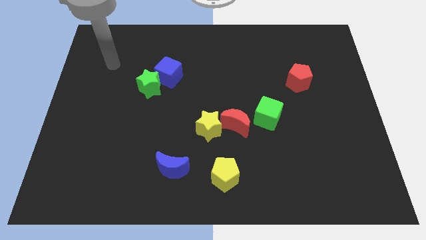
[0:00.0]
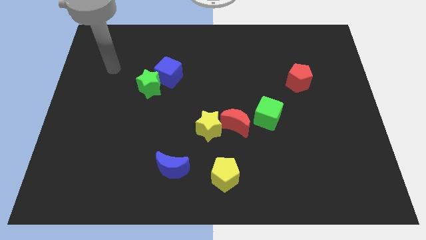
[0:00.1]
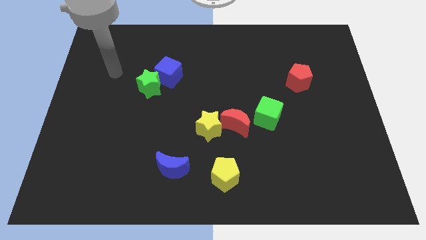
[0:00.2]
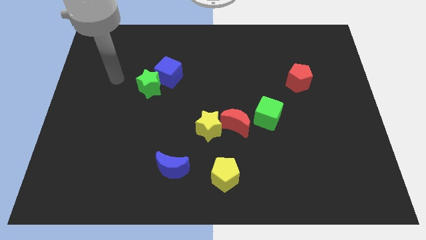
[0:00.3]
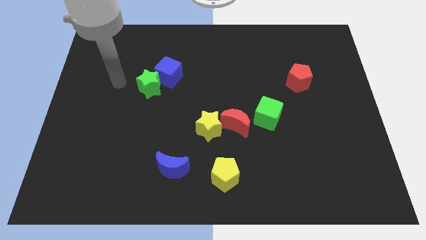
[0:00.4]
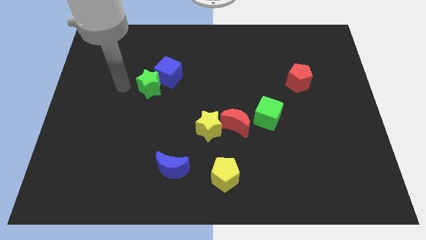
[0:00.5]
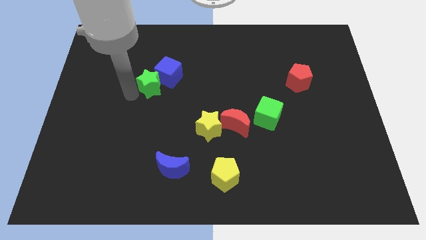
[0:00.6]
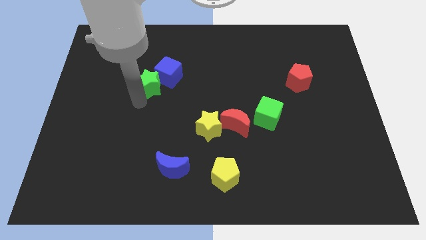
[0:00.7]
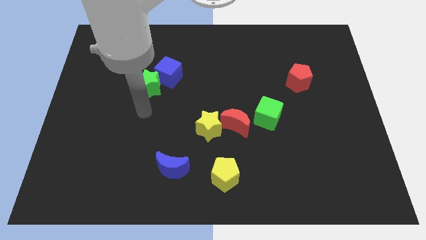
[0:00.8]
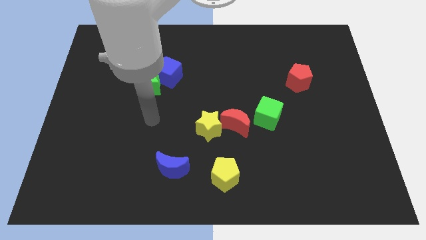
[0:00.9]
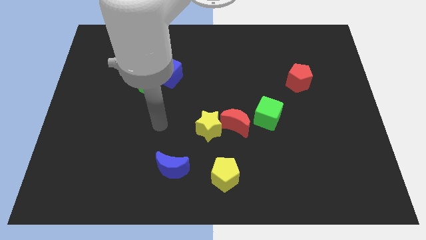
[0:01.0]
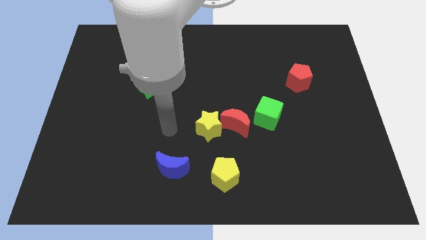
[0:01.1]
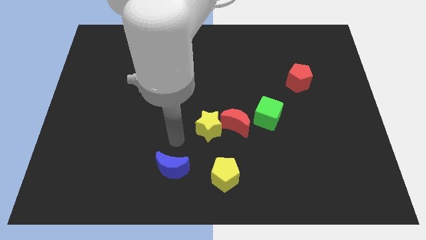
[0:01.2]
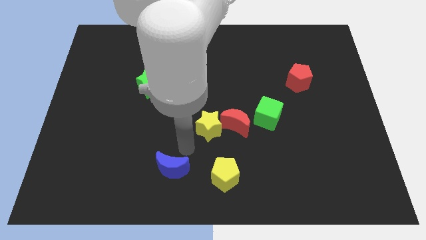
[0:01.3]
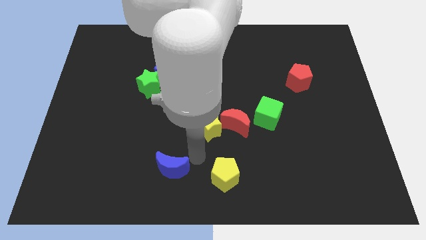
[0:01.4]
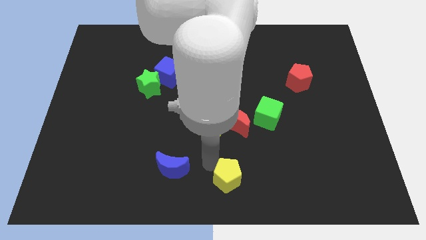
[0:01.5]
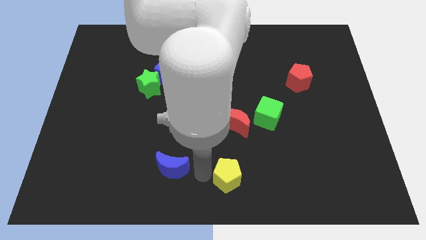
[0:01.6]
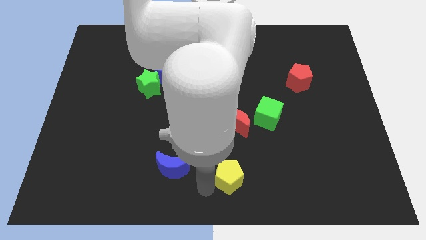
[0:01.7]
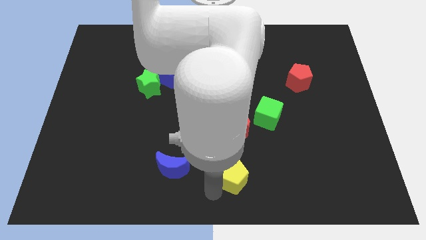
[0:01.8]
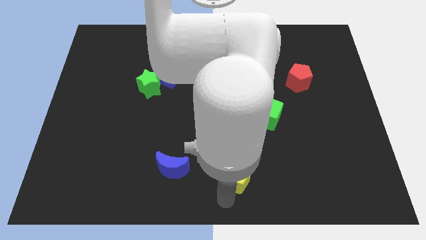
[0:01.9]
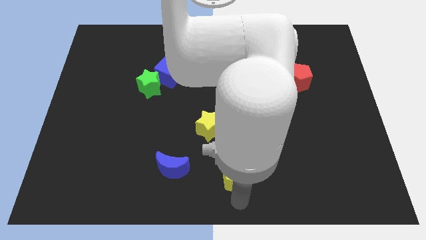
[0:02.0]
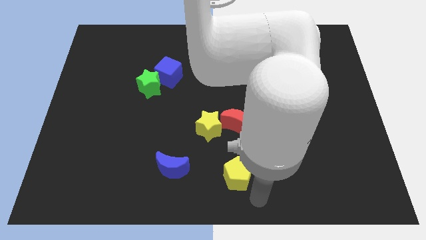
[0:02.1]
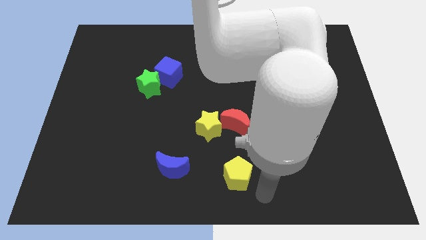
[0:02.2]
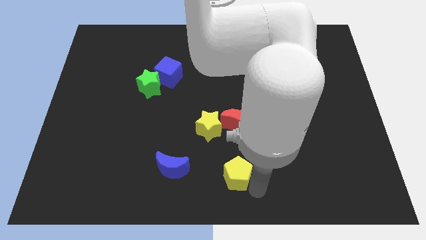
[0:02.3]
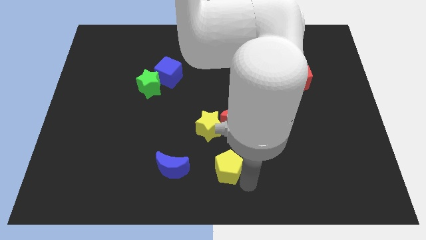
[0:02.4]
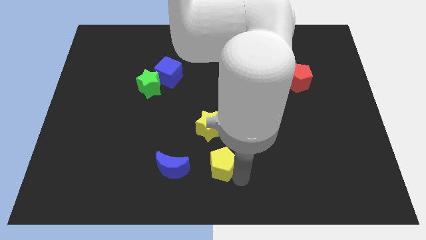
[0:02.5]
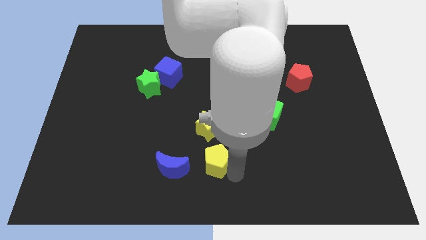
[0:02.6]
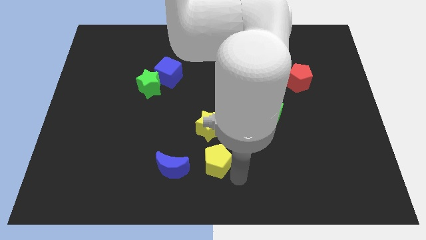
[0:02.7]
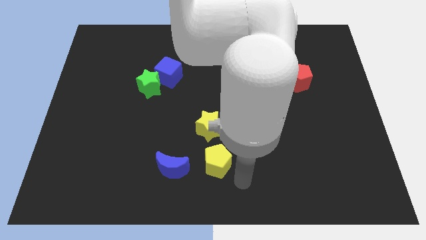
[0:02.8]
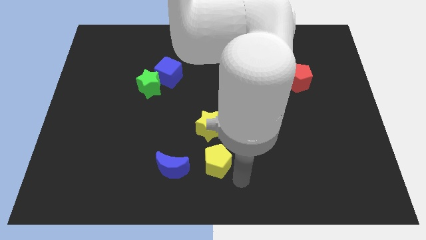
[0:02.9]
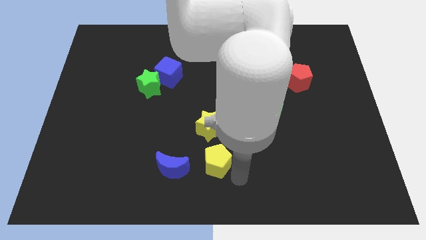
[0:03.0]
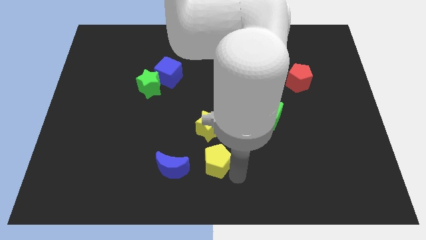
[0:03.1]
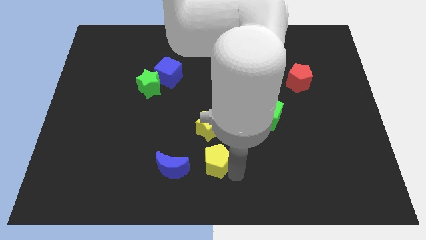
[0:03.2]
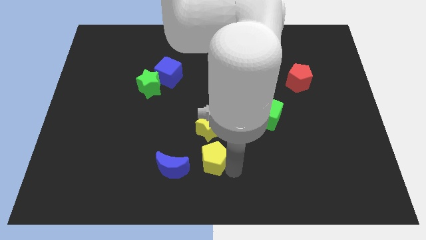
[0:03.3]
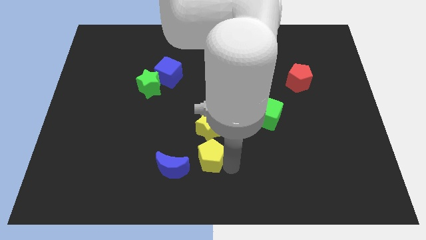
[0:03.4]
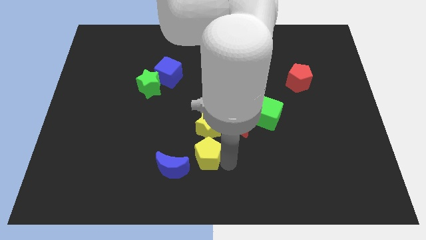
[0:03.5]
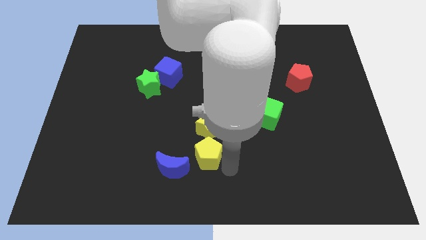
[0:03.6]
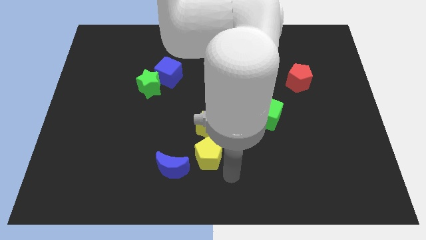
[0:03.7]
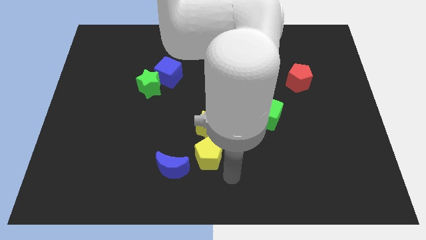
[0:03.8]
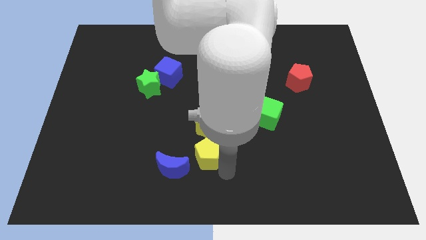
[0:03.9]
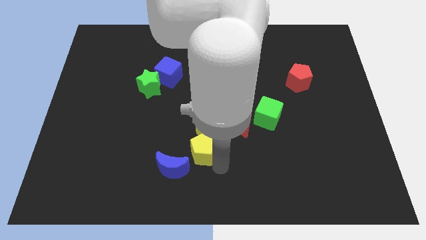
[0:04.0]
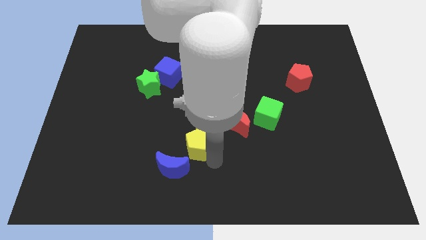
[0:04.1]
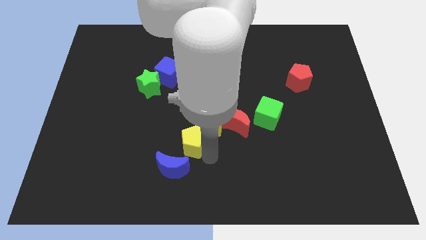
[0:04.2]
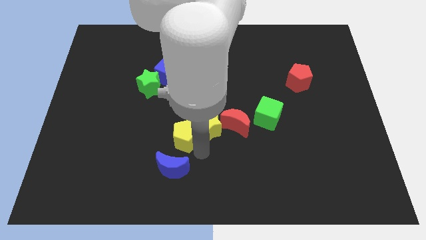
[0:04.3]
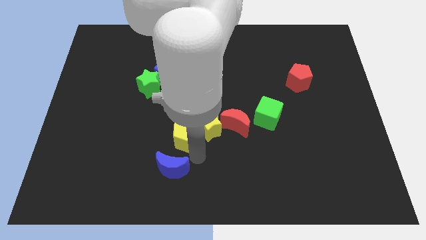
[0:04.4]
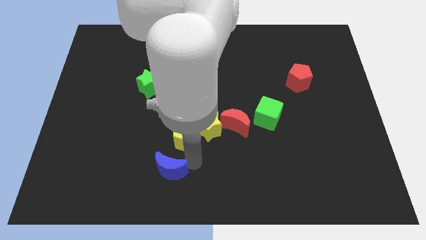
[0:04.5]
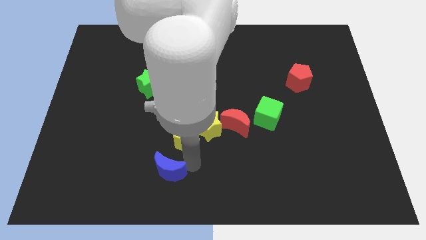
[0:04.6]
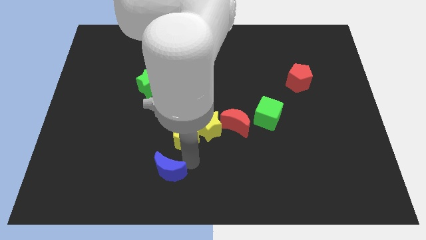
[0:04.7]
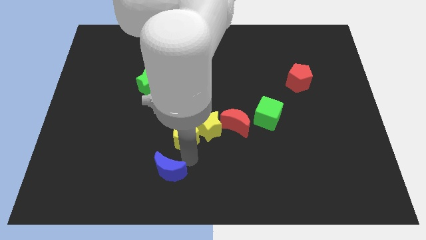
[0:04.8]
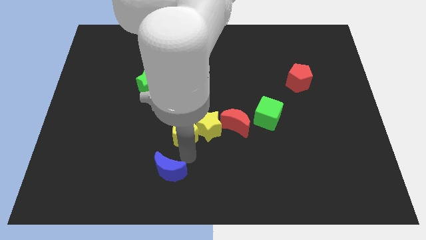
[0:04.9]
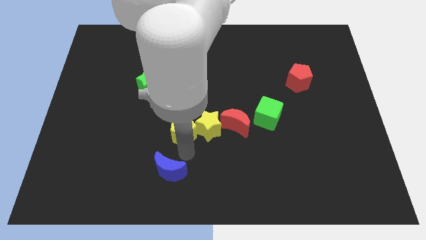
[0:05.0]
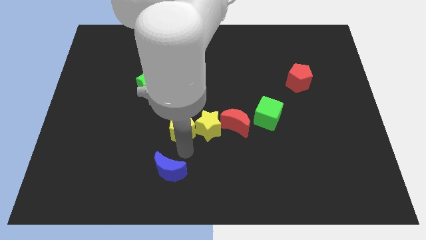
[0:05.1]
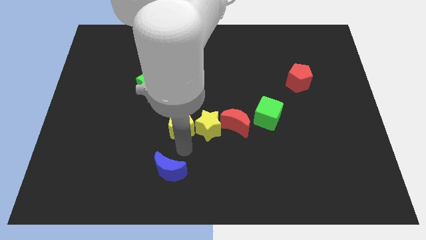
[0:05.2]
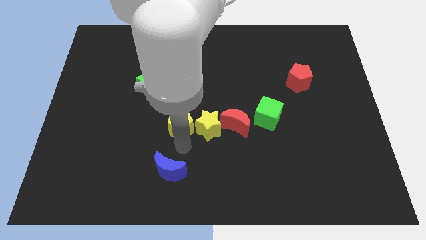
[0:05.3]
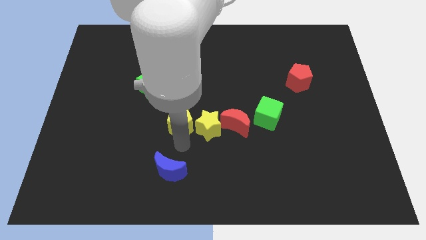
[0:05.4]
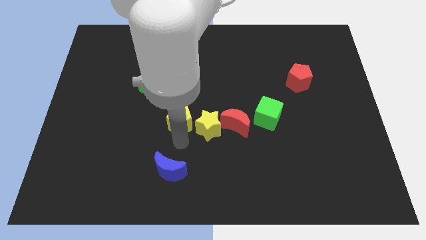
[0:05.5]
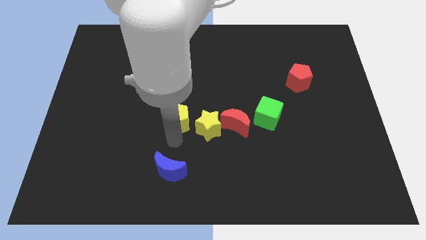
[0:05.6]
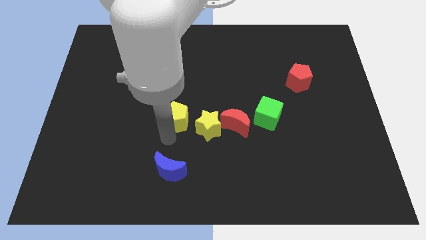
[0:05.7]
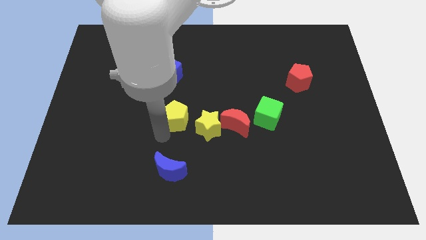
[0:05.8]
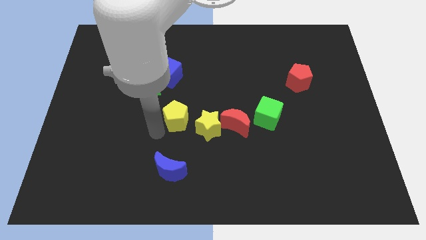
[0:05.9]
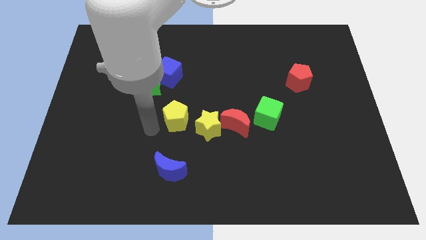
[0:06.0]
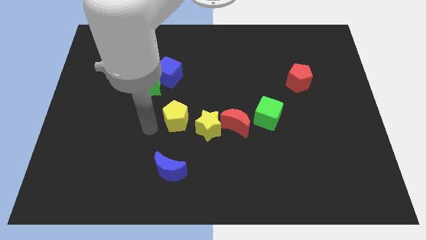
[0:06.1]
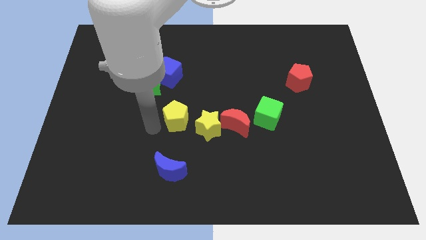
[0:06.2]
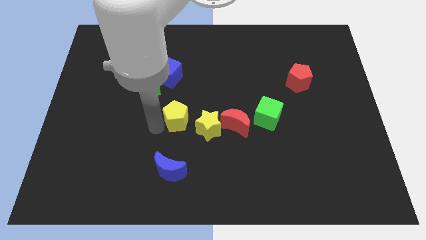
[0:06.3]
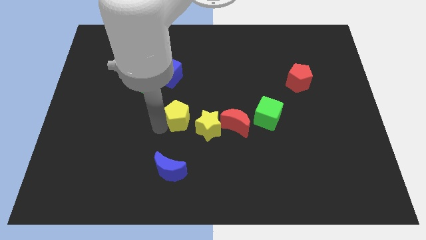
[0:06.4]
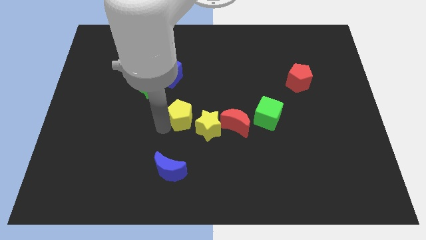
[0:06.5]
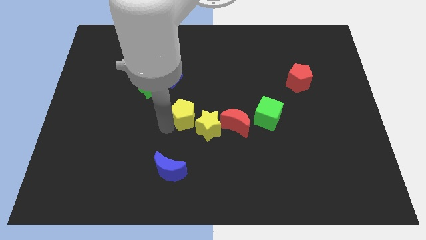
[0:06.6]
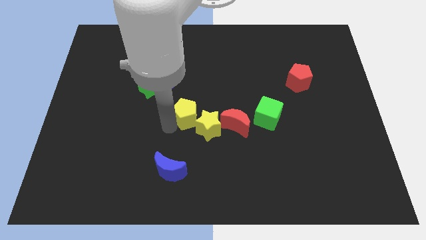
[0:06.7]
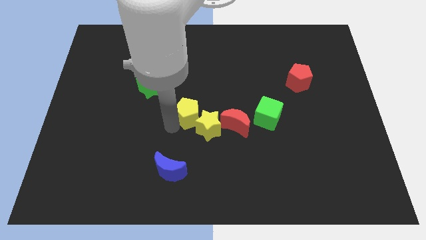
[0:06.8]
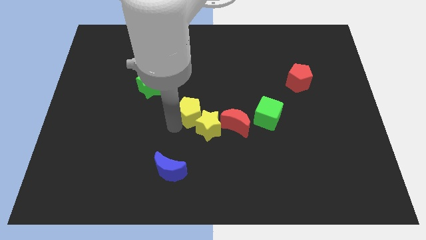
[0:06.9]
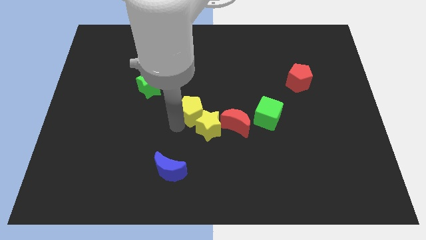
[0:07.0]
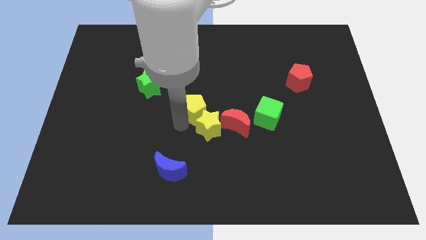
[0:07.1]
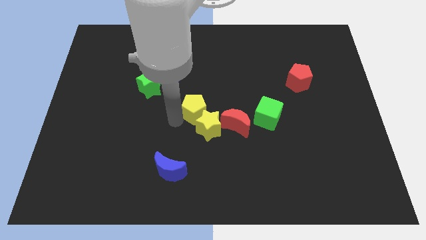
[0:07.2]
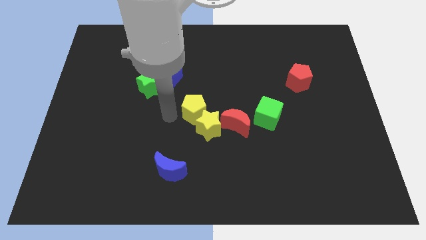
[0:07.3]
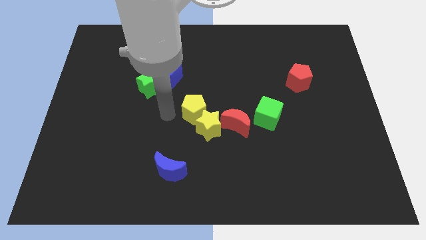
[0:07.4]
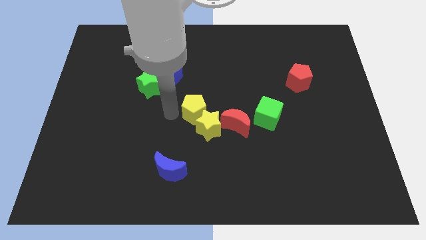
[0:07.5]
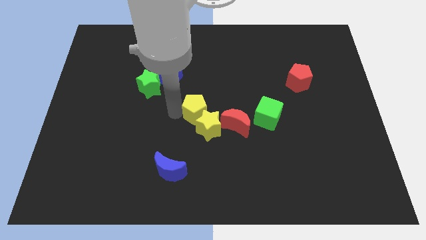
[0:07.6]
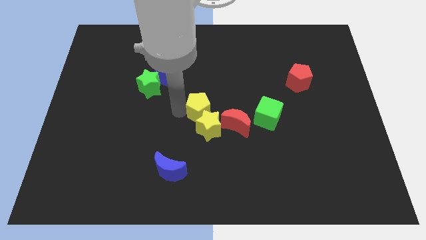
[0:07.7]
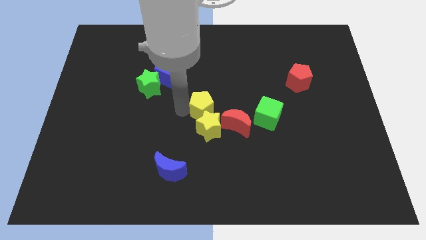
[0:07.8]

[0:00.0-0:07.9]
slide the yellow pentagon to the top right side of the yellow star
